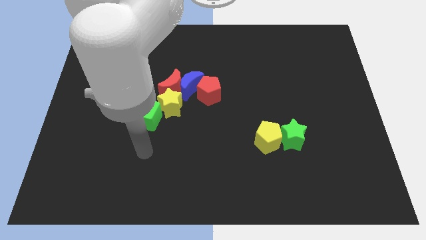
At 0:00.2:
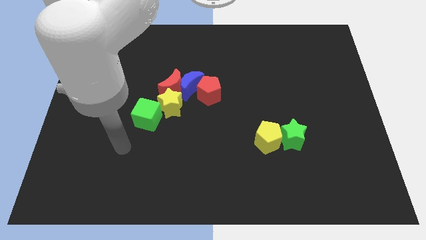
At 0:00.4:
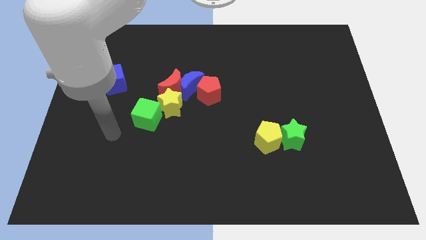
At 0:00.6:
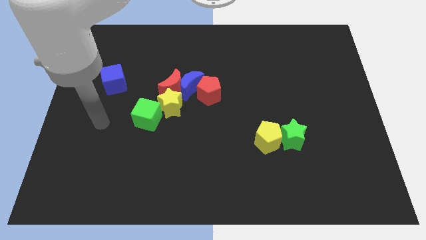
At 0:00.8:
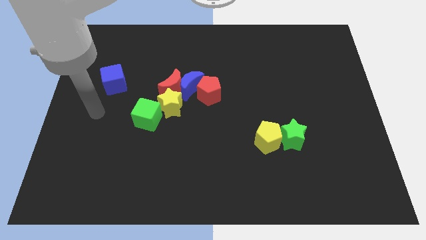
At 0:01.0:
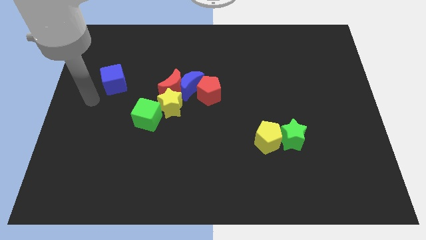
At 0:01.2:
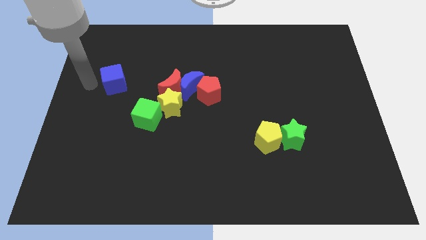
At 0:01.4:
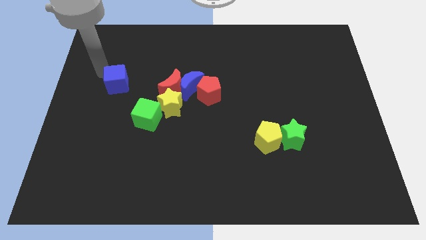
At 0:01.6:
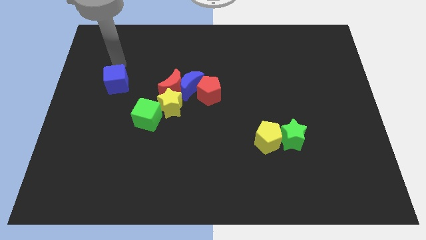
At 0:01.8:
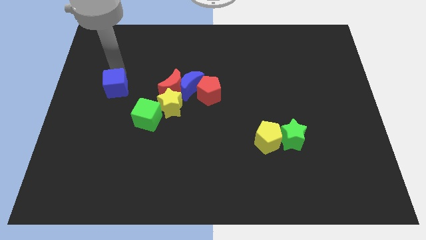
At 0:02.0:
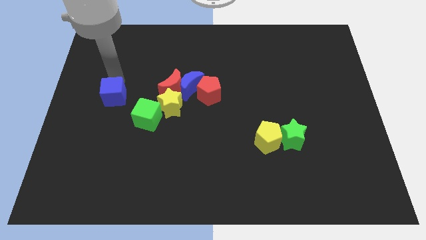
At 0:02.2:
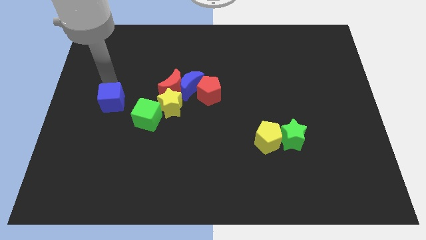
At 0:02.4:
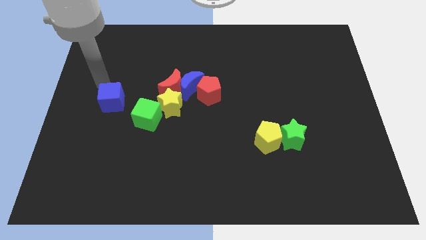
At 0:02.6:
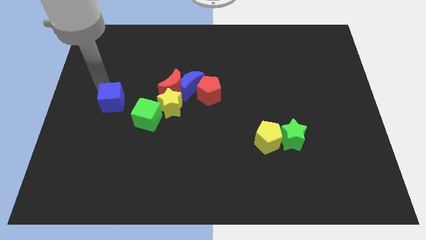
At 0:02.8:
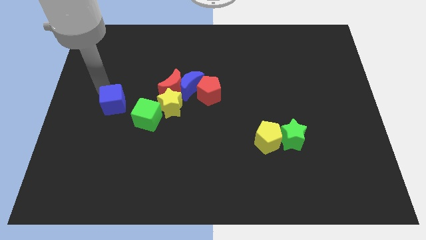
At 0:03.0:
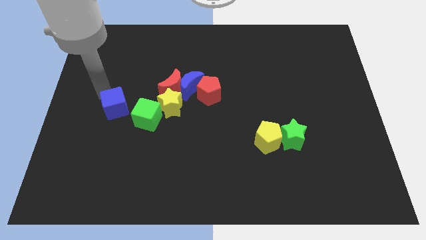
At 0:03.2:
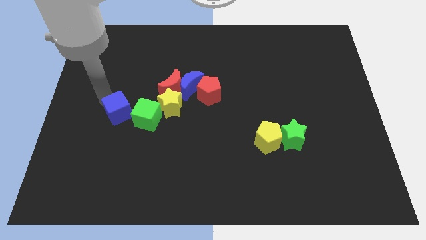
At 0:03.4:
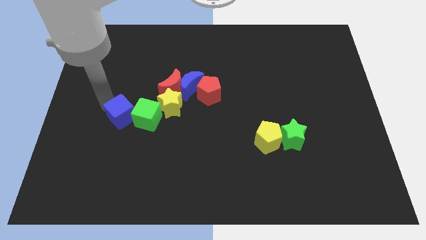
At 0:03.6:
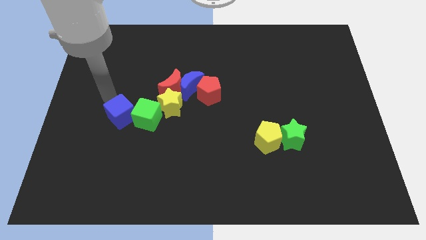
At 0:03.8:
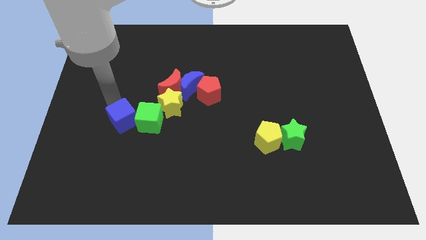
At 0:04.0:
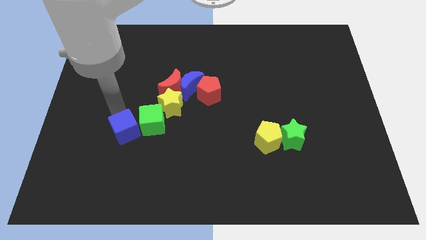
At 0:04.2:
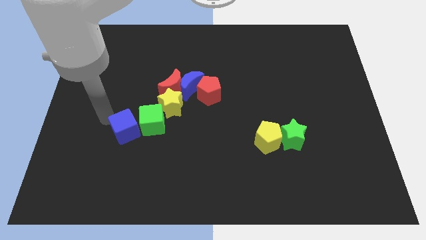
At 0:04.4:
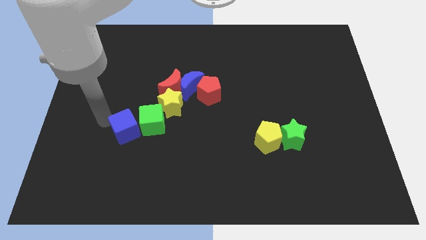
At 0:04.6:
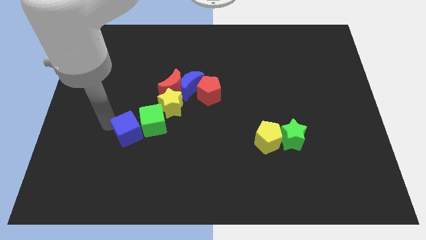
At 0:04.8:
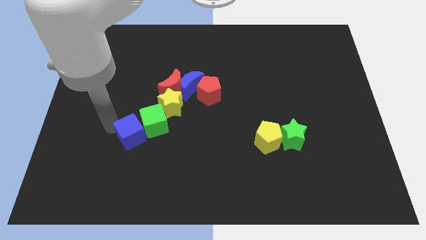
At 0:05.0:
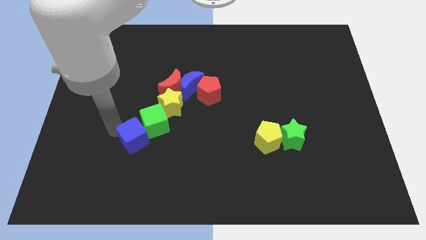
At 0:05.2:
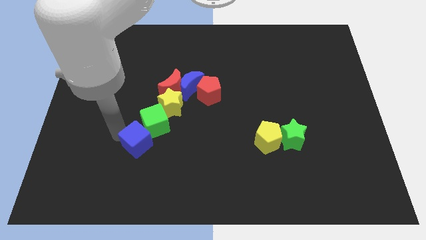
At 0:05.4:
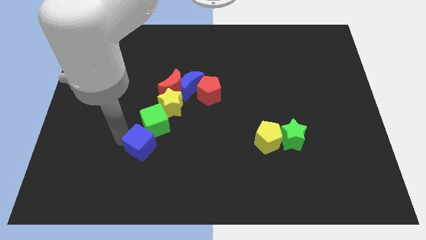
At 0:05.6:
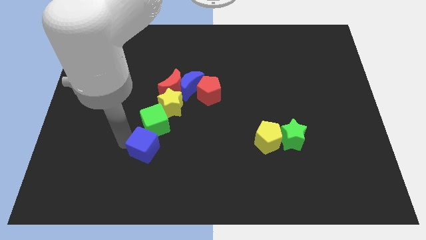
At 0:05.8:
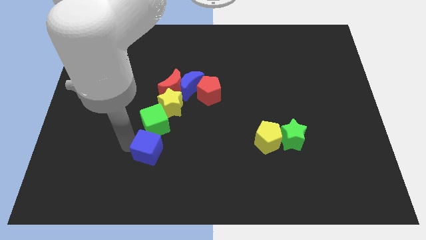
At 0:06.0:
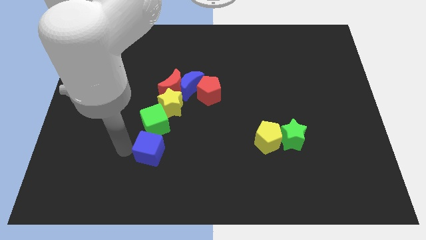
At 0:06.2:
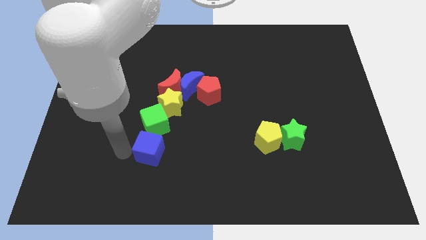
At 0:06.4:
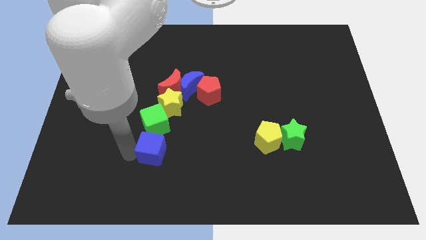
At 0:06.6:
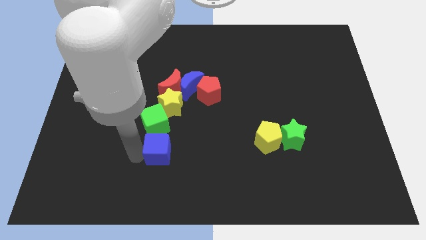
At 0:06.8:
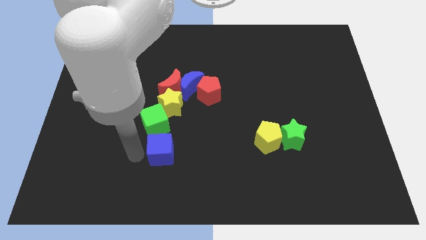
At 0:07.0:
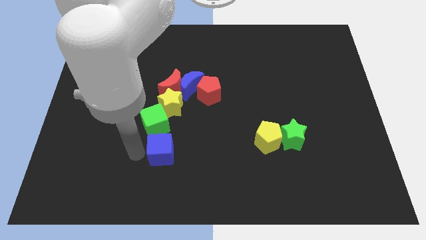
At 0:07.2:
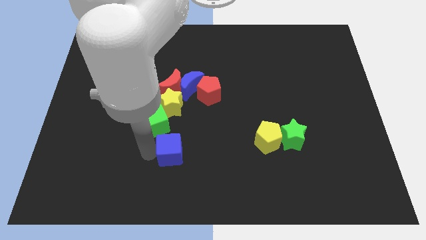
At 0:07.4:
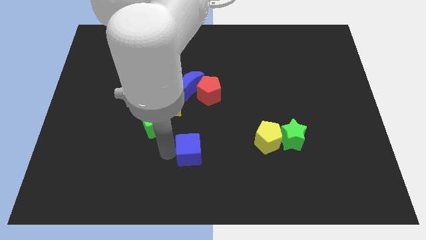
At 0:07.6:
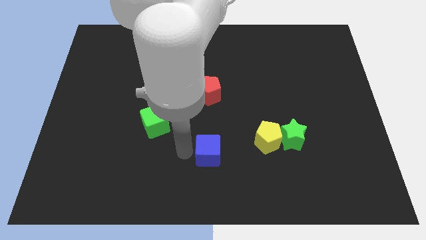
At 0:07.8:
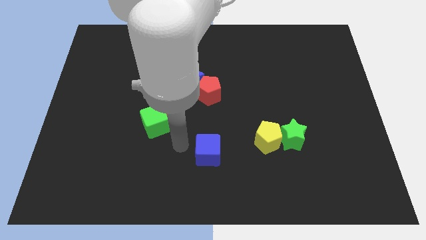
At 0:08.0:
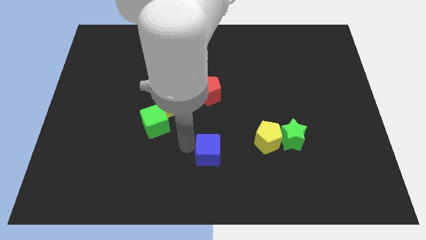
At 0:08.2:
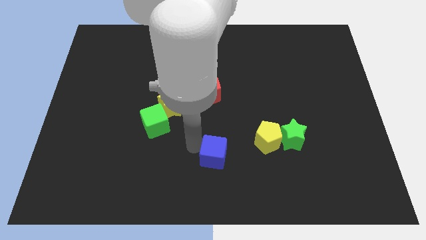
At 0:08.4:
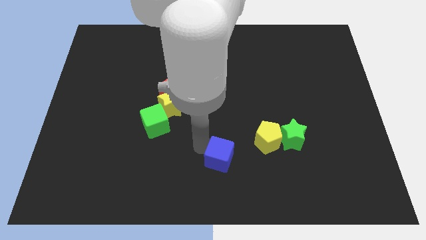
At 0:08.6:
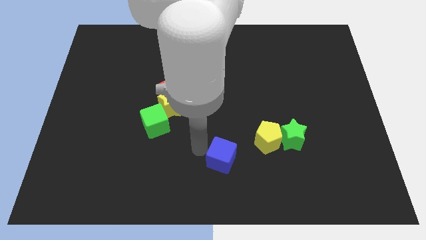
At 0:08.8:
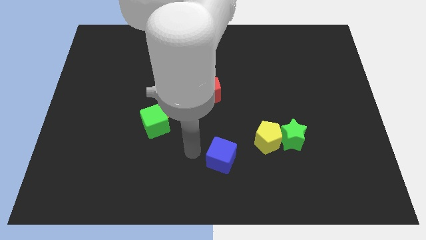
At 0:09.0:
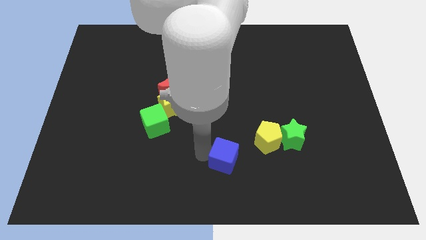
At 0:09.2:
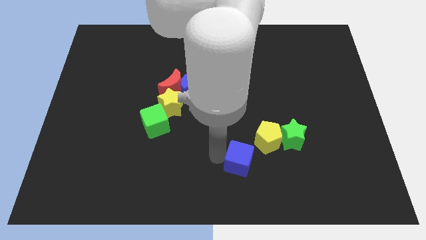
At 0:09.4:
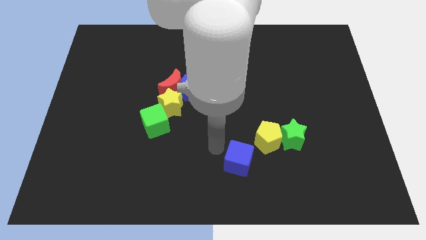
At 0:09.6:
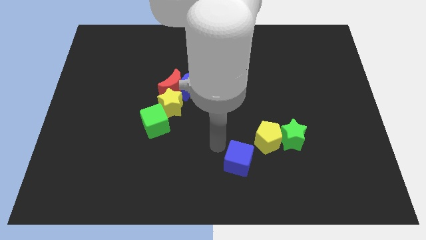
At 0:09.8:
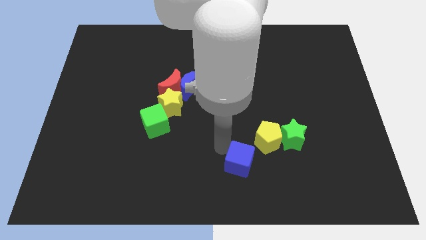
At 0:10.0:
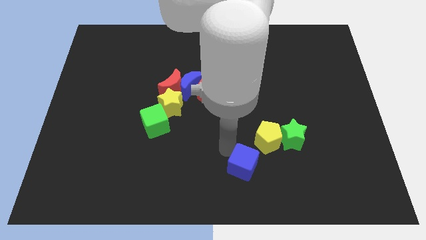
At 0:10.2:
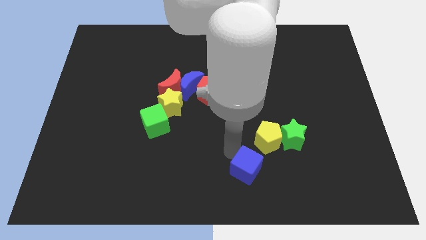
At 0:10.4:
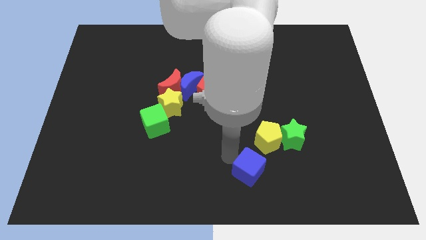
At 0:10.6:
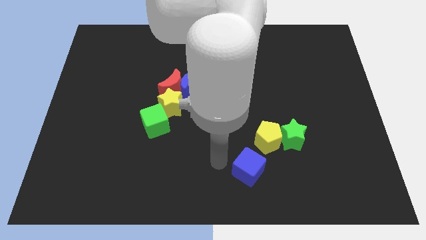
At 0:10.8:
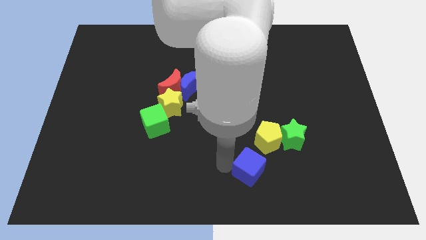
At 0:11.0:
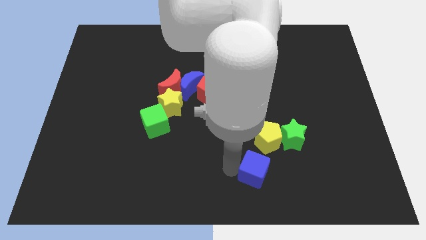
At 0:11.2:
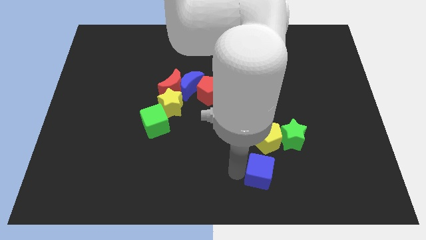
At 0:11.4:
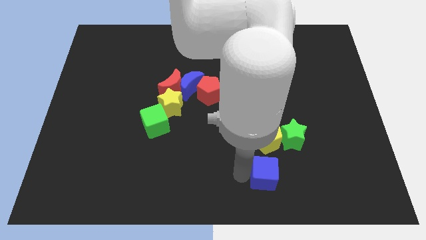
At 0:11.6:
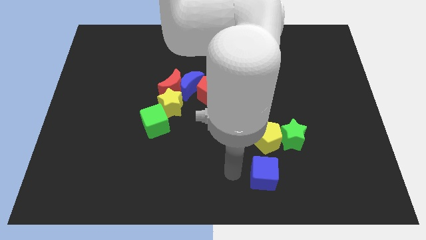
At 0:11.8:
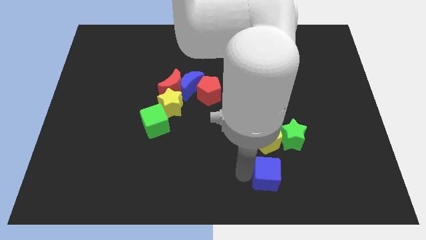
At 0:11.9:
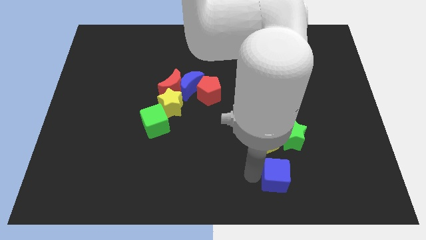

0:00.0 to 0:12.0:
slide the blue cube below the green star

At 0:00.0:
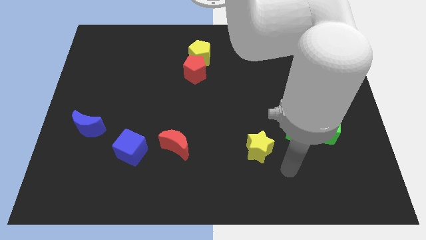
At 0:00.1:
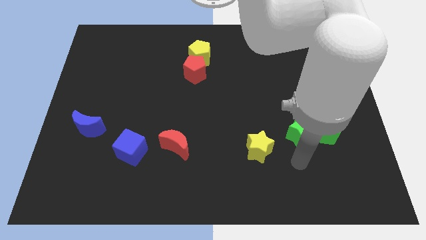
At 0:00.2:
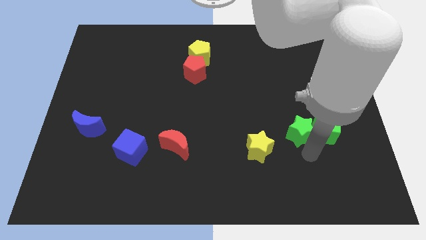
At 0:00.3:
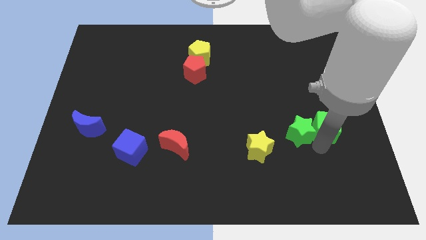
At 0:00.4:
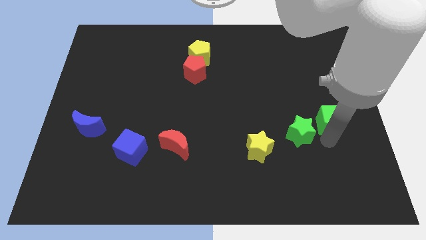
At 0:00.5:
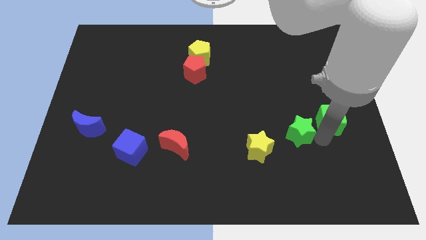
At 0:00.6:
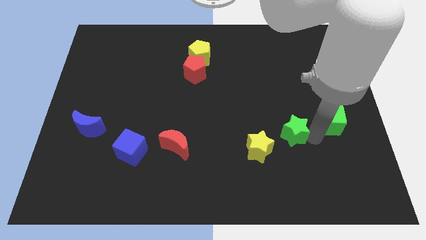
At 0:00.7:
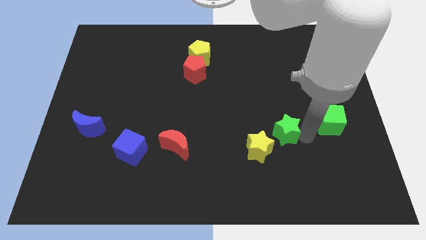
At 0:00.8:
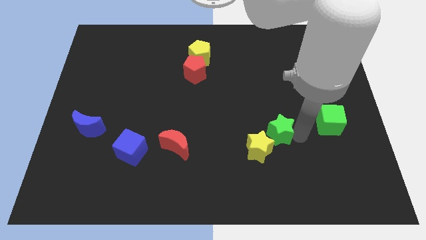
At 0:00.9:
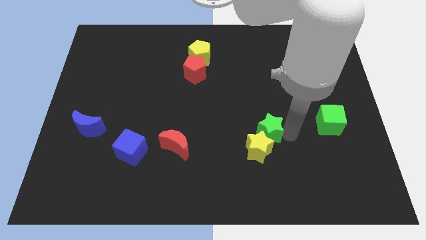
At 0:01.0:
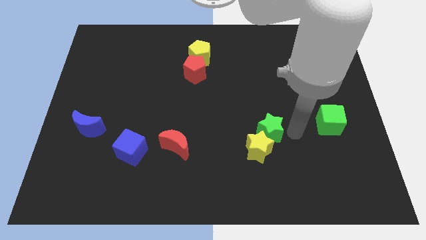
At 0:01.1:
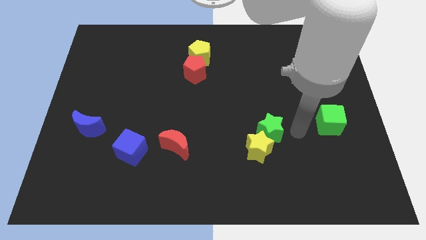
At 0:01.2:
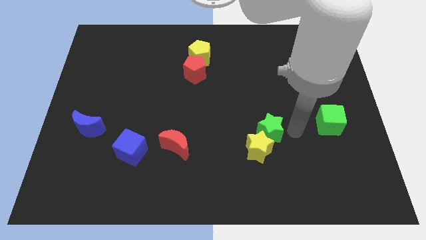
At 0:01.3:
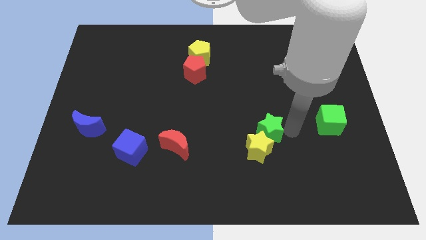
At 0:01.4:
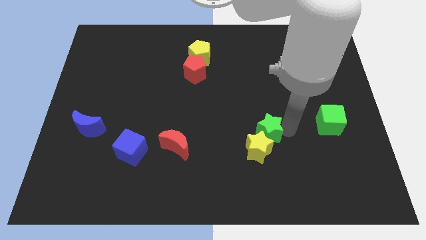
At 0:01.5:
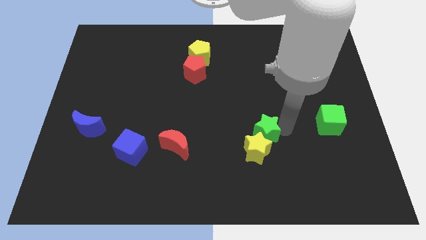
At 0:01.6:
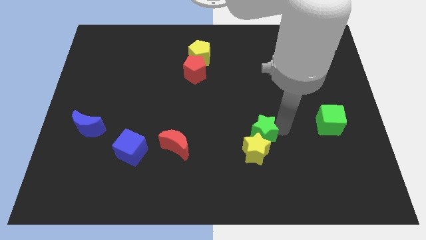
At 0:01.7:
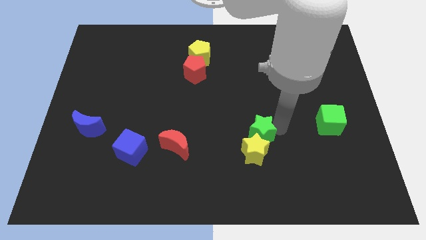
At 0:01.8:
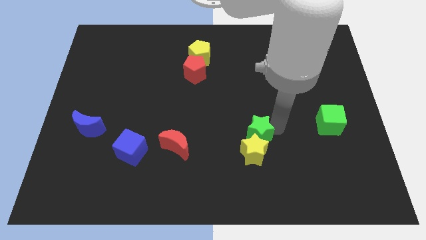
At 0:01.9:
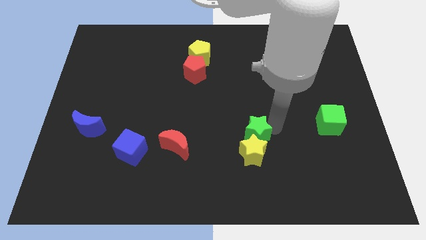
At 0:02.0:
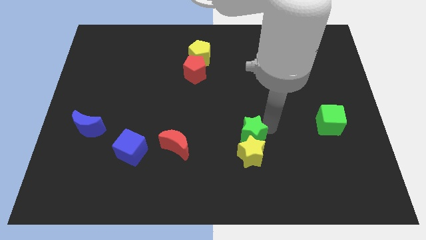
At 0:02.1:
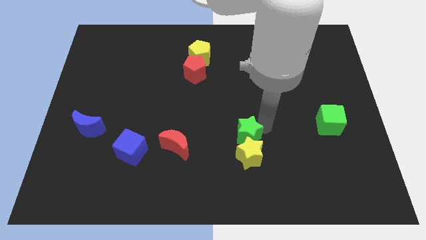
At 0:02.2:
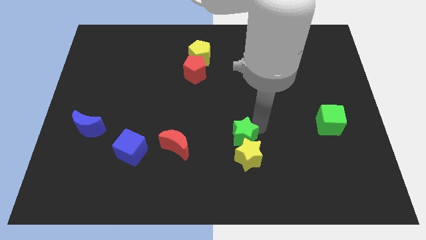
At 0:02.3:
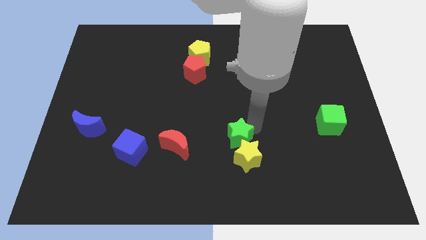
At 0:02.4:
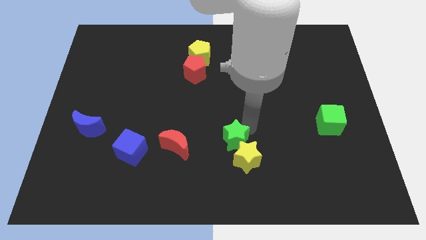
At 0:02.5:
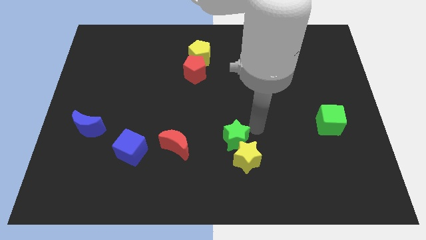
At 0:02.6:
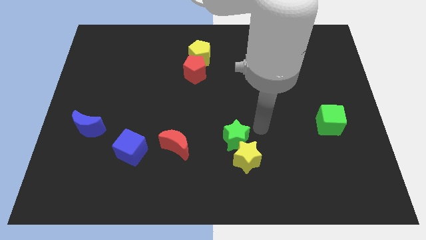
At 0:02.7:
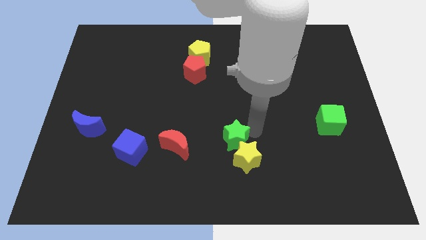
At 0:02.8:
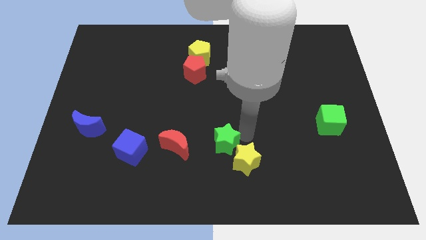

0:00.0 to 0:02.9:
move the green star left of the yellow star
